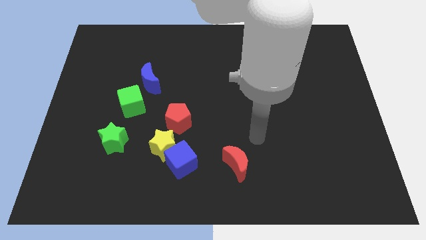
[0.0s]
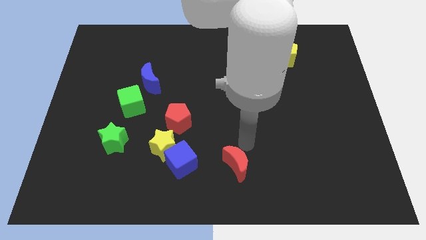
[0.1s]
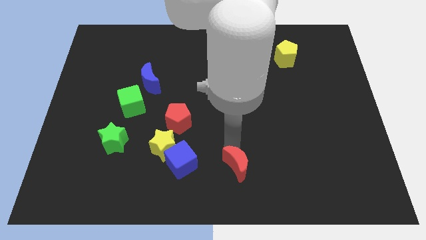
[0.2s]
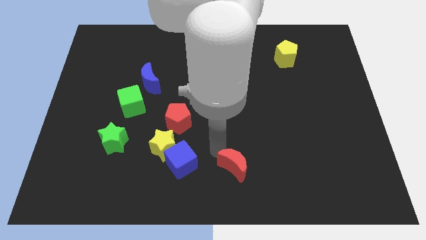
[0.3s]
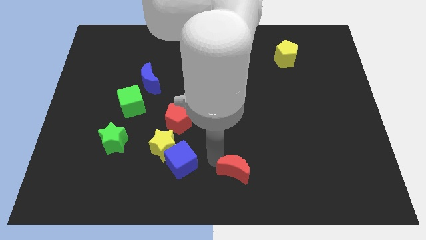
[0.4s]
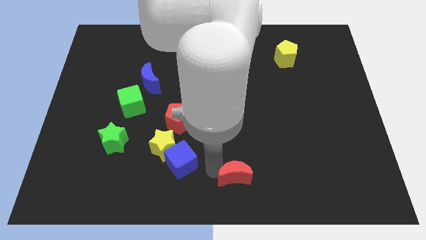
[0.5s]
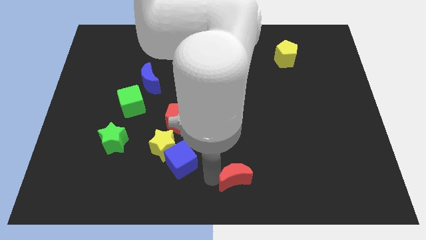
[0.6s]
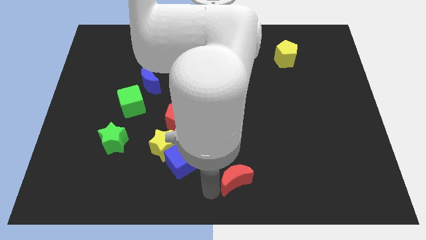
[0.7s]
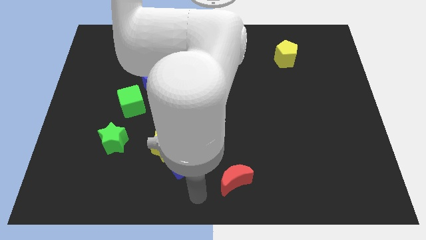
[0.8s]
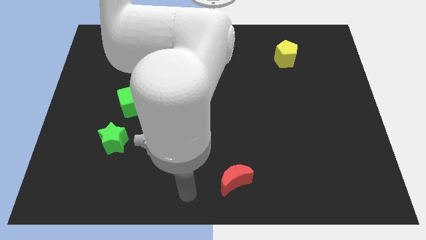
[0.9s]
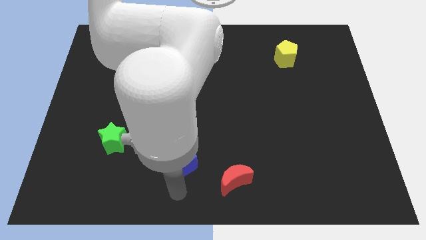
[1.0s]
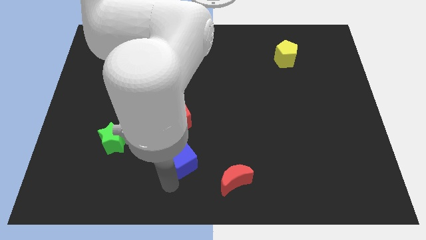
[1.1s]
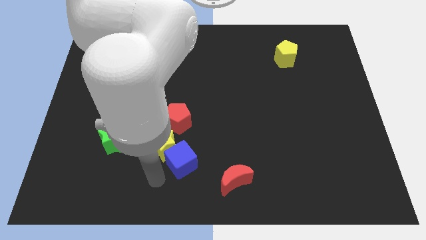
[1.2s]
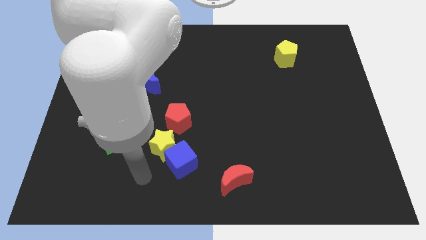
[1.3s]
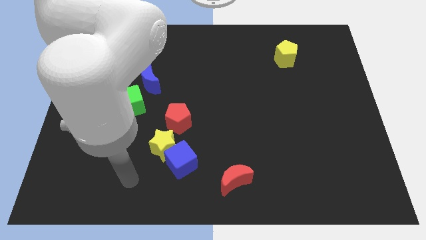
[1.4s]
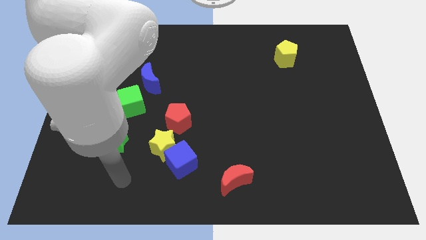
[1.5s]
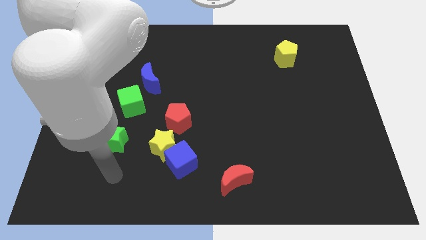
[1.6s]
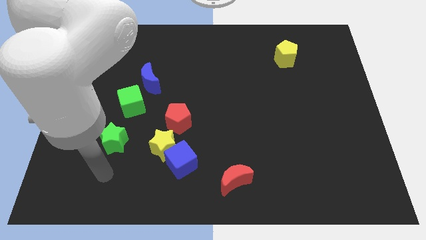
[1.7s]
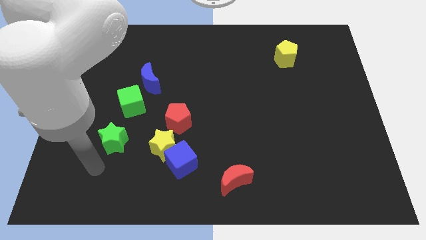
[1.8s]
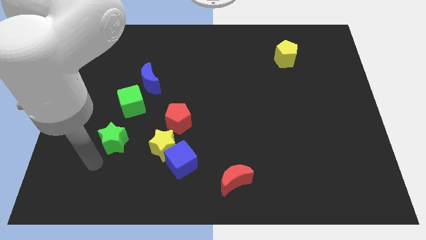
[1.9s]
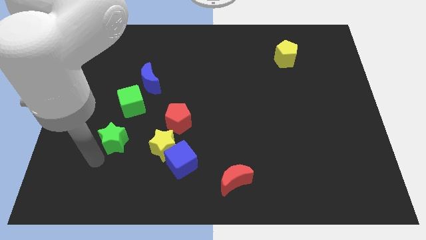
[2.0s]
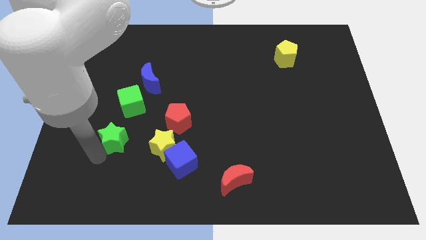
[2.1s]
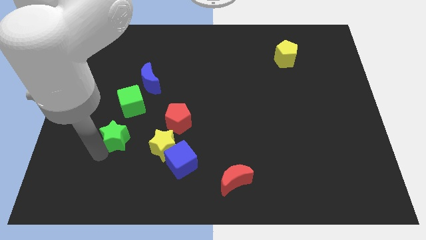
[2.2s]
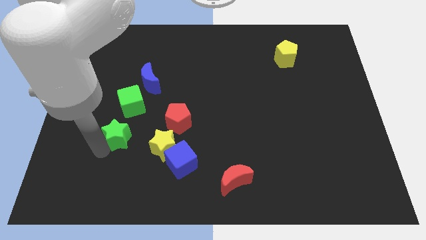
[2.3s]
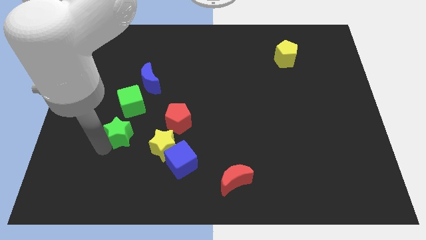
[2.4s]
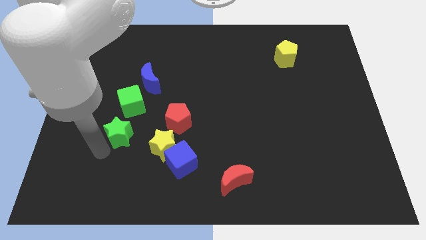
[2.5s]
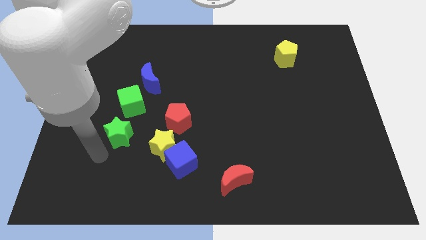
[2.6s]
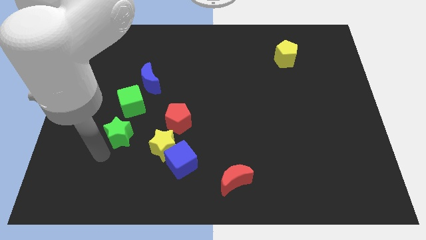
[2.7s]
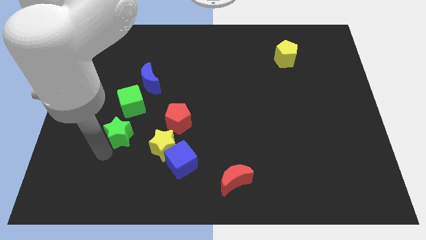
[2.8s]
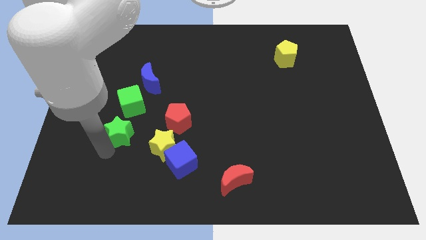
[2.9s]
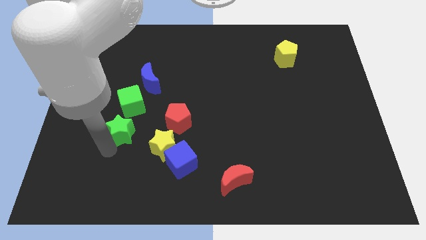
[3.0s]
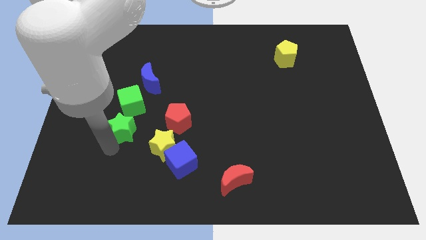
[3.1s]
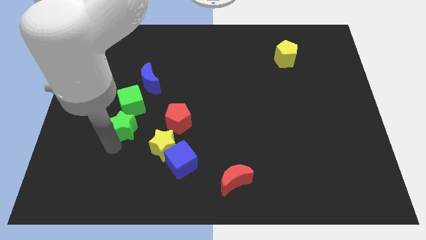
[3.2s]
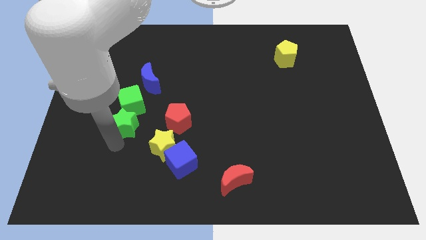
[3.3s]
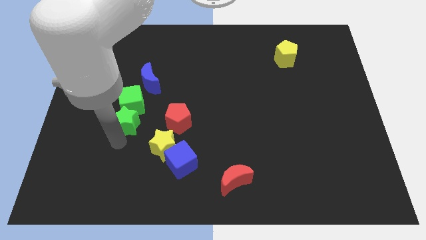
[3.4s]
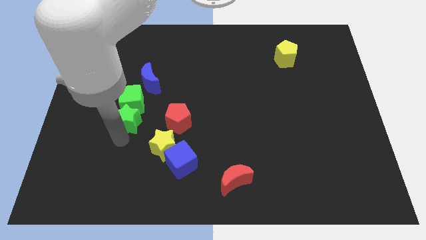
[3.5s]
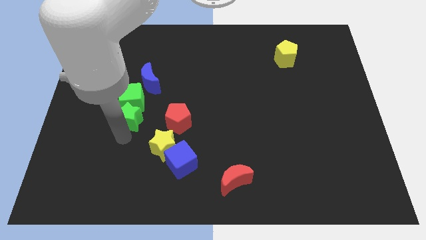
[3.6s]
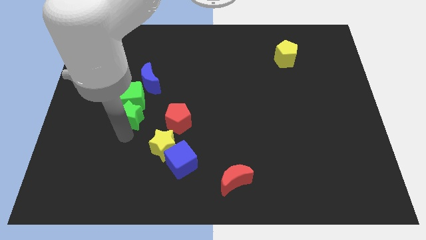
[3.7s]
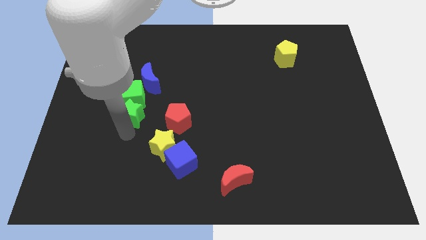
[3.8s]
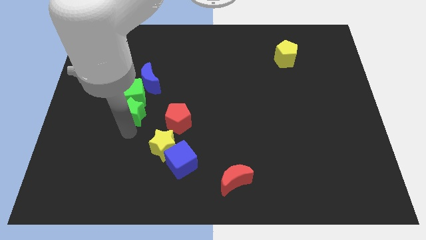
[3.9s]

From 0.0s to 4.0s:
slide the green star up and then to the right a little bit

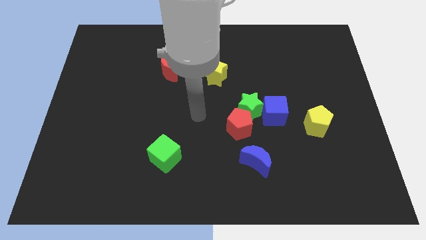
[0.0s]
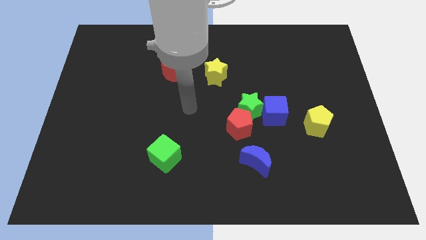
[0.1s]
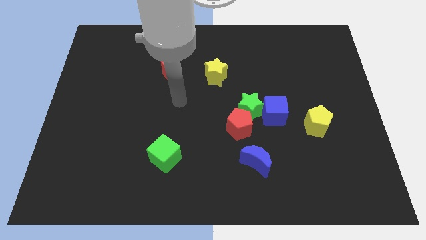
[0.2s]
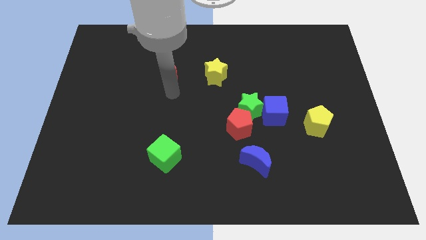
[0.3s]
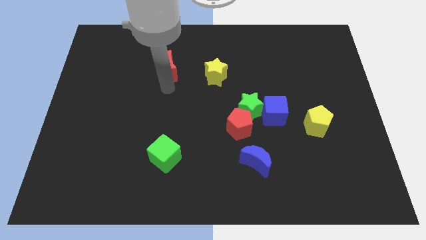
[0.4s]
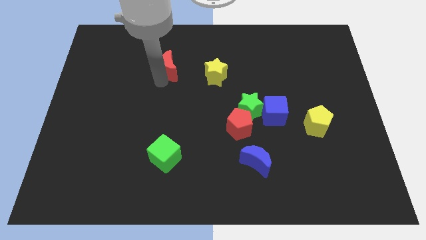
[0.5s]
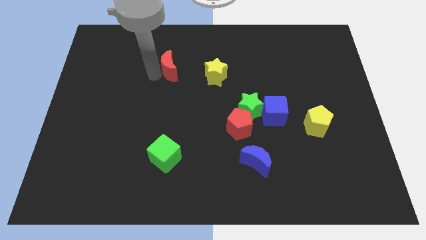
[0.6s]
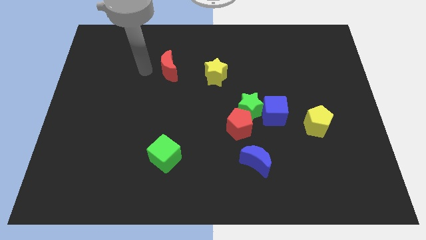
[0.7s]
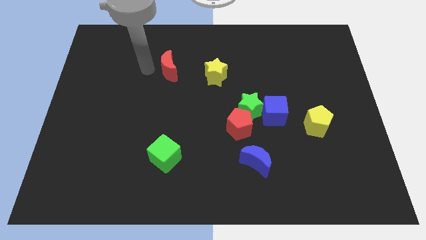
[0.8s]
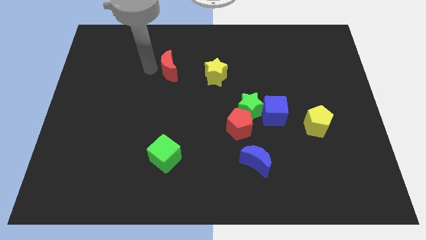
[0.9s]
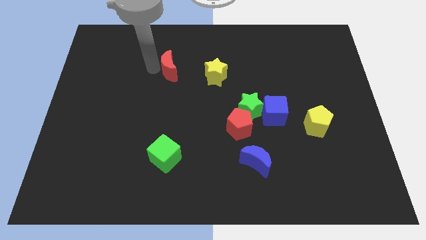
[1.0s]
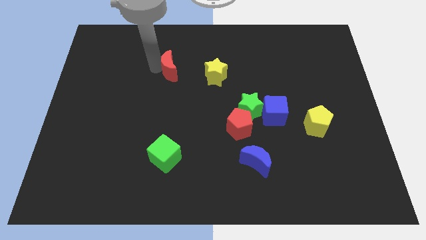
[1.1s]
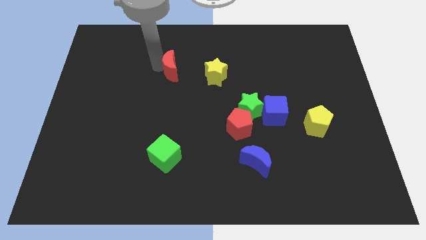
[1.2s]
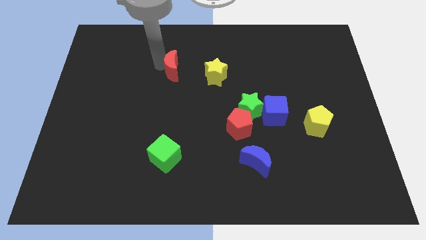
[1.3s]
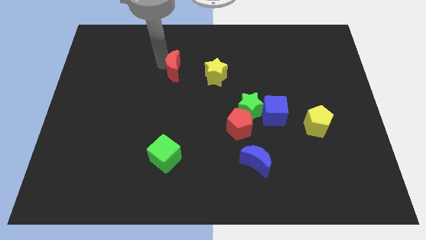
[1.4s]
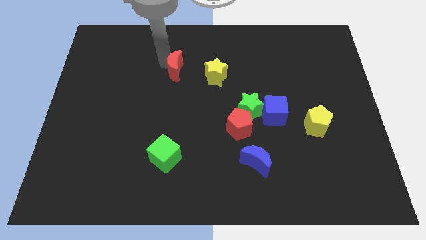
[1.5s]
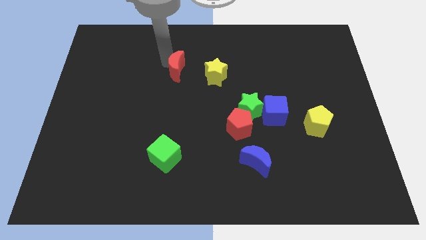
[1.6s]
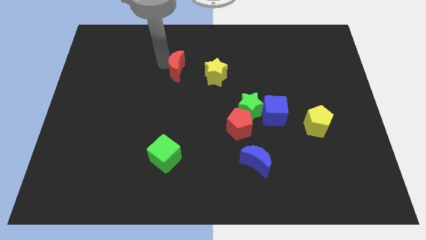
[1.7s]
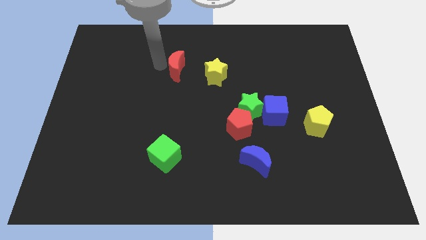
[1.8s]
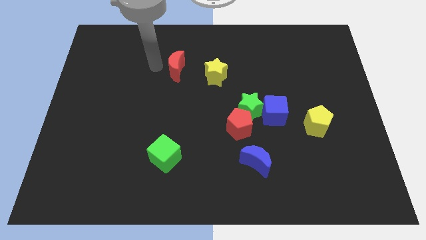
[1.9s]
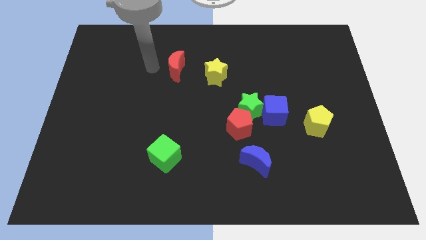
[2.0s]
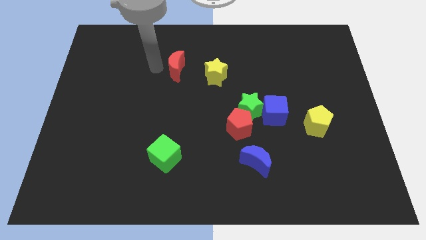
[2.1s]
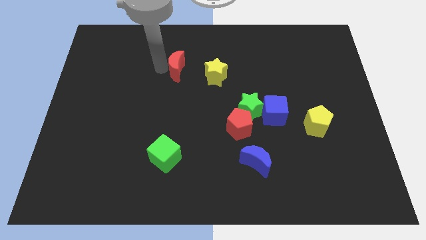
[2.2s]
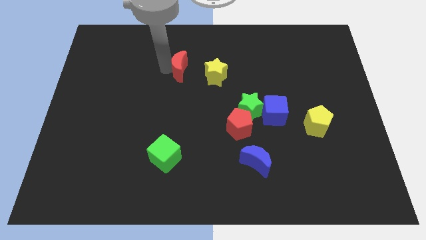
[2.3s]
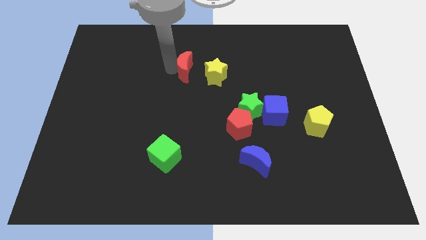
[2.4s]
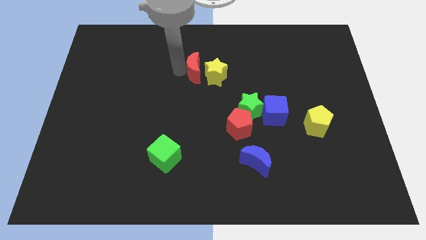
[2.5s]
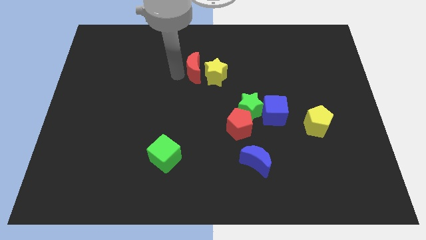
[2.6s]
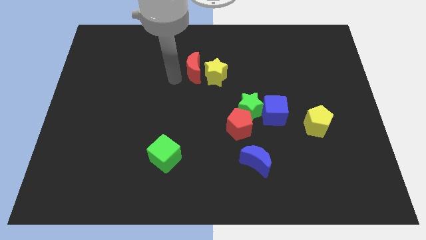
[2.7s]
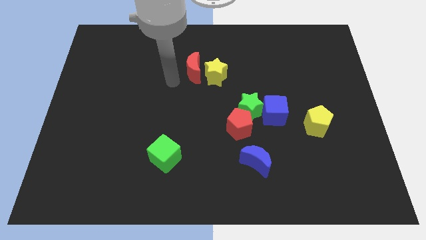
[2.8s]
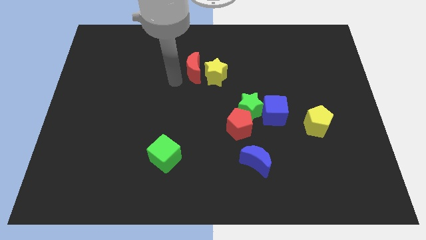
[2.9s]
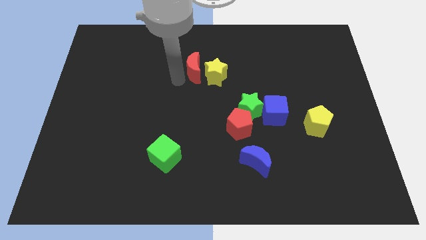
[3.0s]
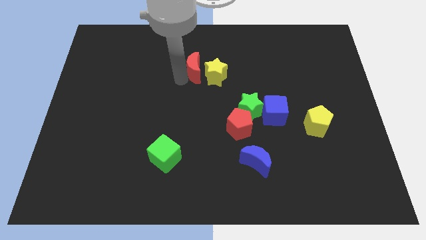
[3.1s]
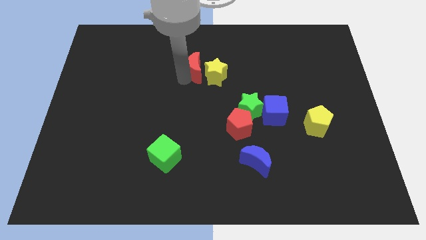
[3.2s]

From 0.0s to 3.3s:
slightly push the red moon to the right

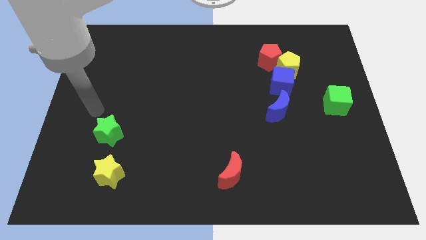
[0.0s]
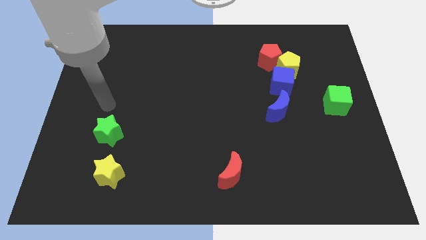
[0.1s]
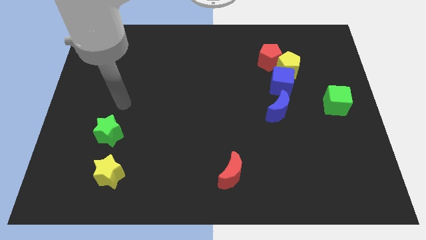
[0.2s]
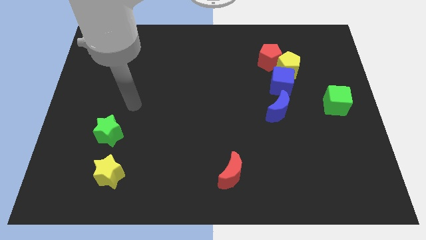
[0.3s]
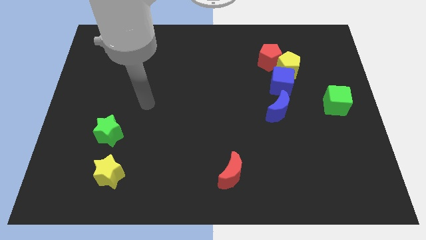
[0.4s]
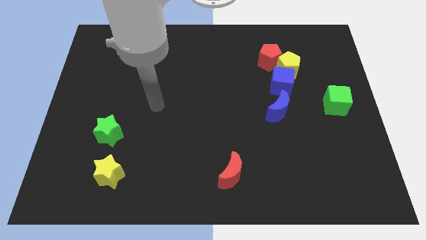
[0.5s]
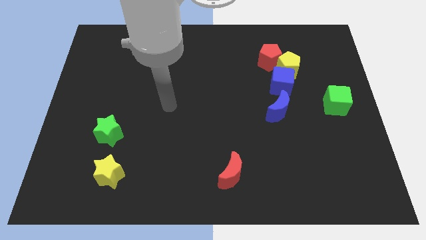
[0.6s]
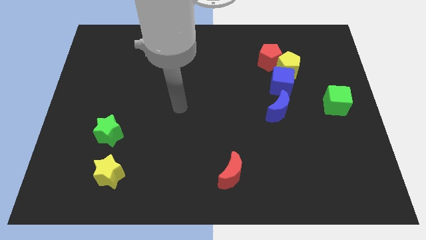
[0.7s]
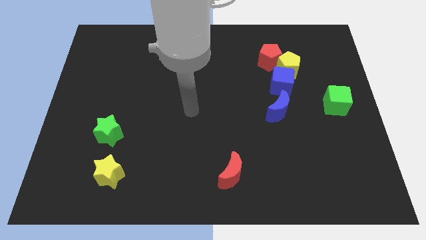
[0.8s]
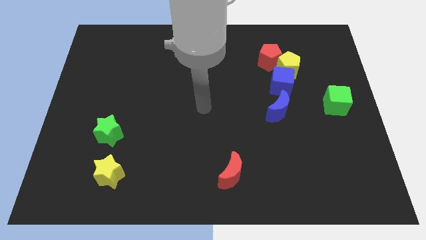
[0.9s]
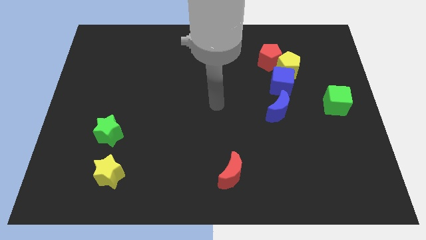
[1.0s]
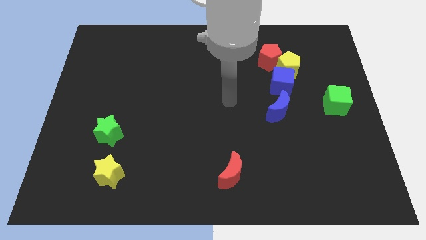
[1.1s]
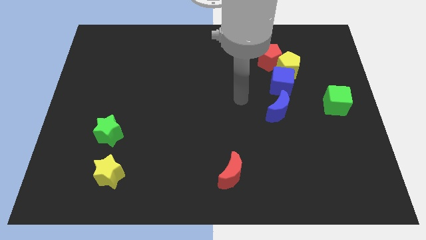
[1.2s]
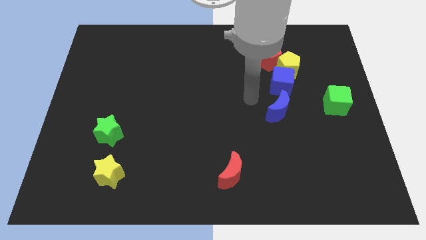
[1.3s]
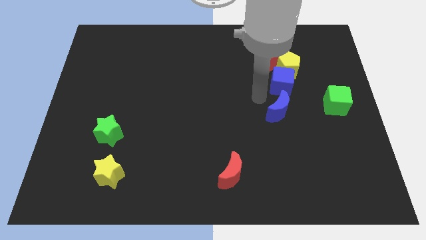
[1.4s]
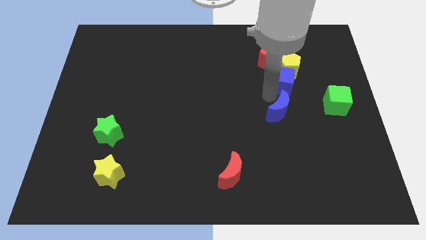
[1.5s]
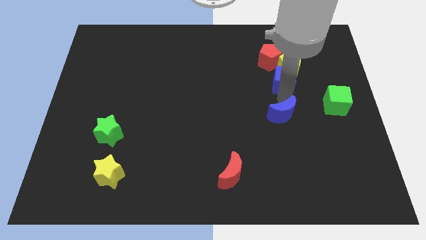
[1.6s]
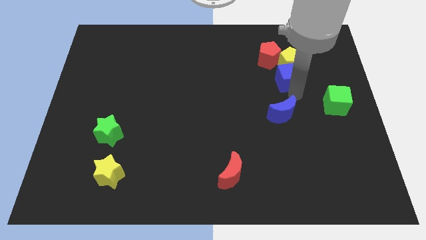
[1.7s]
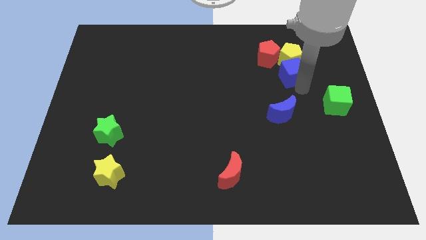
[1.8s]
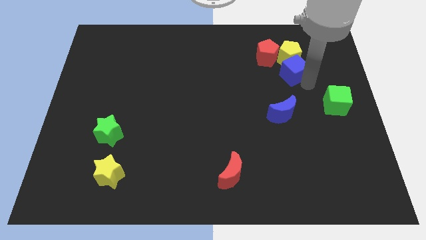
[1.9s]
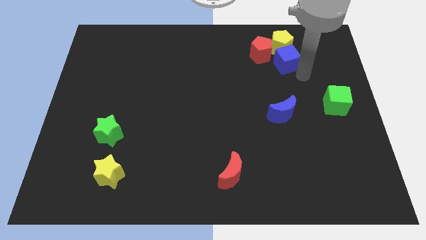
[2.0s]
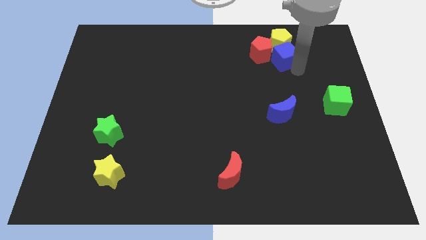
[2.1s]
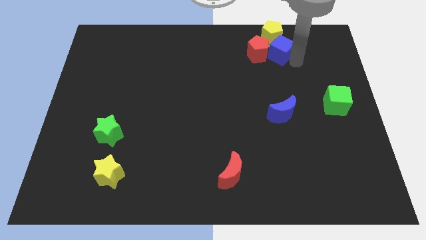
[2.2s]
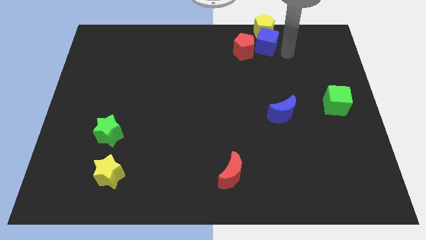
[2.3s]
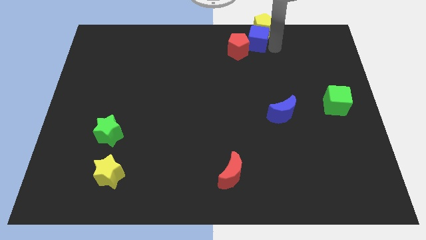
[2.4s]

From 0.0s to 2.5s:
slightly push the red pentagon left
